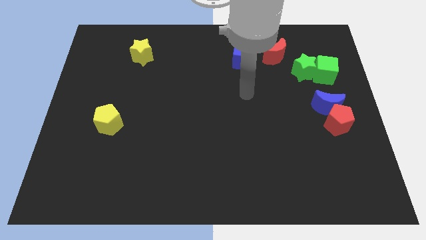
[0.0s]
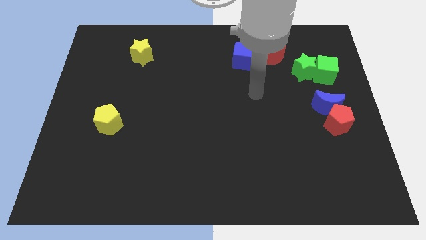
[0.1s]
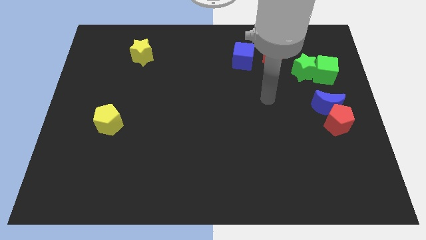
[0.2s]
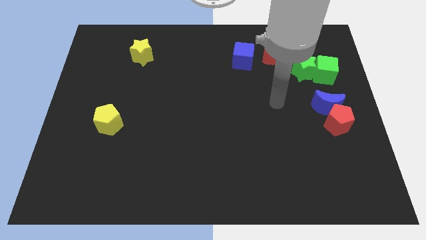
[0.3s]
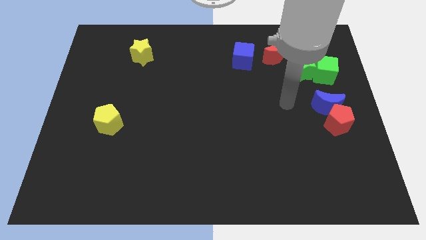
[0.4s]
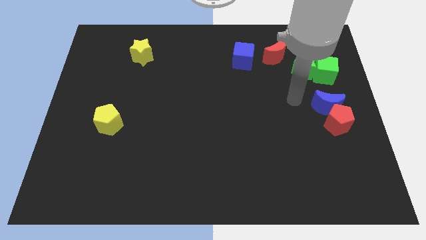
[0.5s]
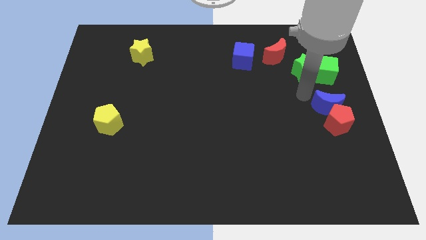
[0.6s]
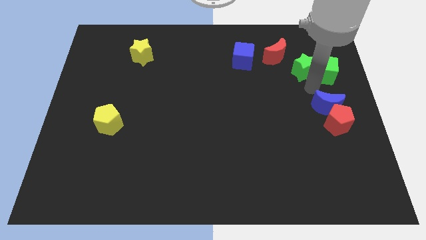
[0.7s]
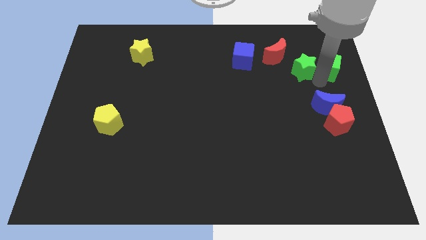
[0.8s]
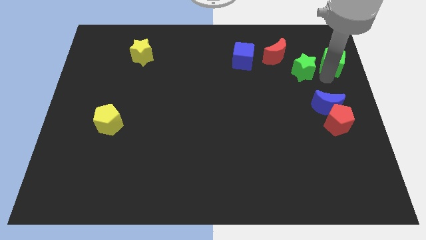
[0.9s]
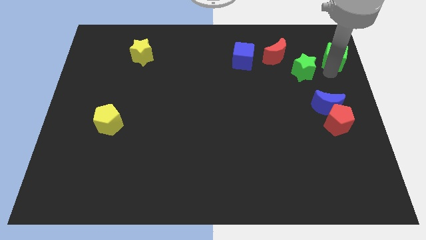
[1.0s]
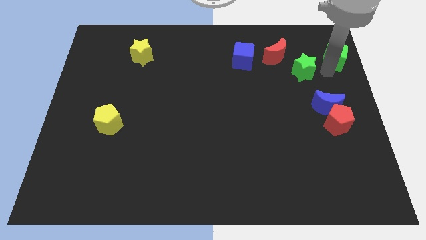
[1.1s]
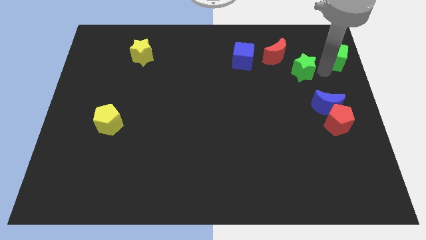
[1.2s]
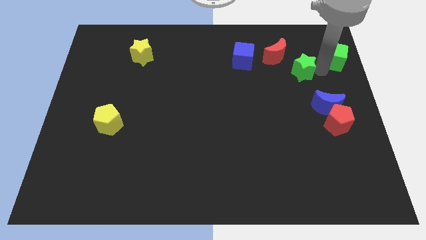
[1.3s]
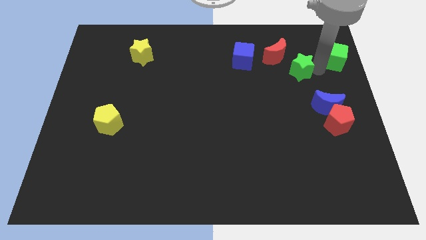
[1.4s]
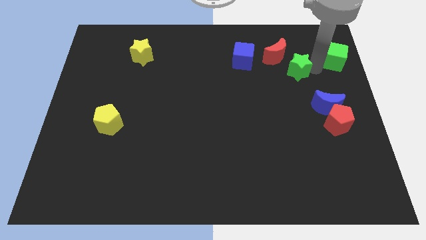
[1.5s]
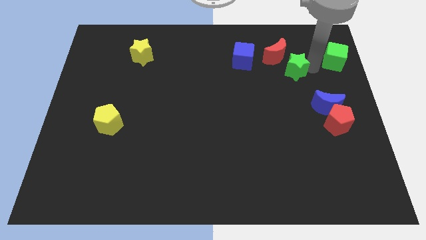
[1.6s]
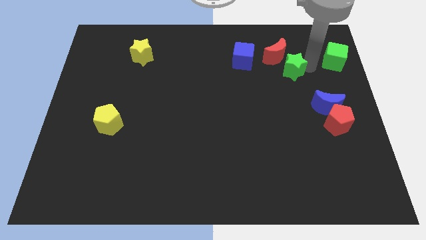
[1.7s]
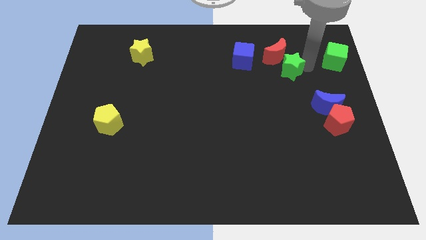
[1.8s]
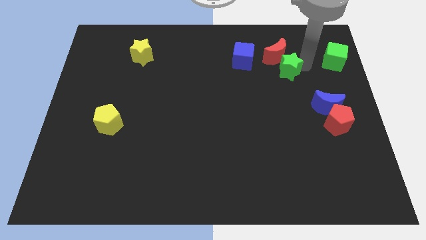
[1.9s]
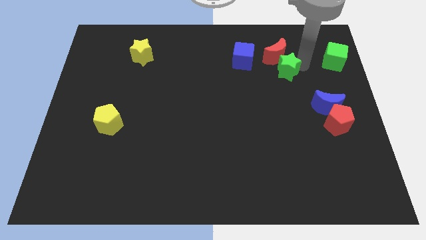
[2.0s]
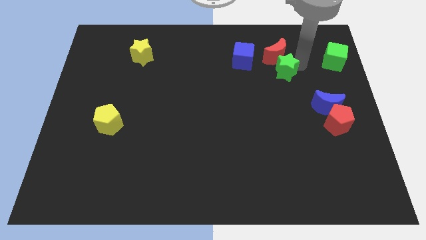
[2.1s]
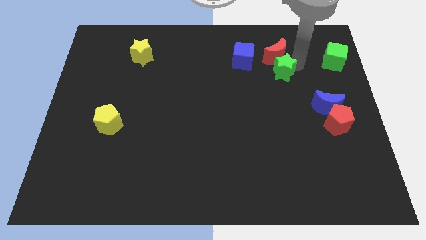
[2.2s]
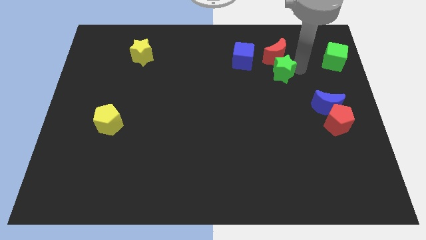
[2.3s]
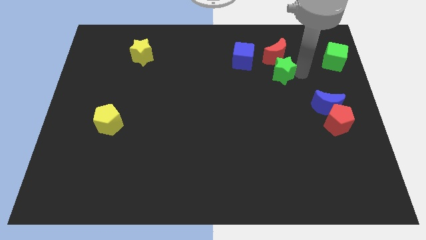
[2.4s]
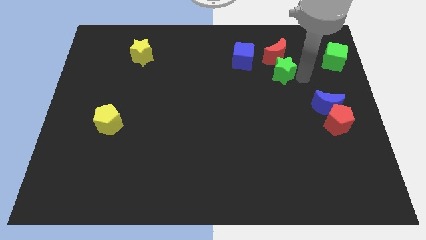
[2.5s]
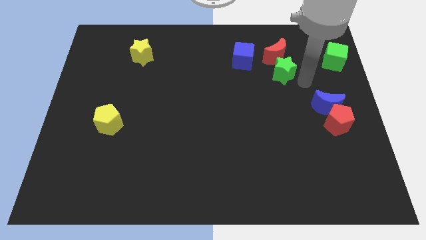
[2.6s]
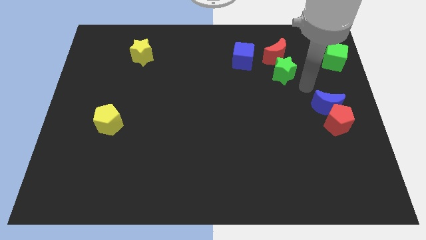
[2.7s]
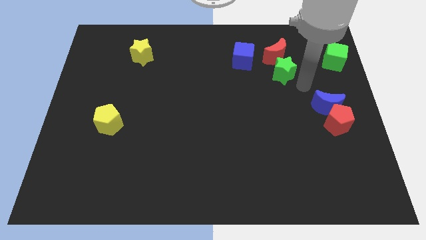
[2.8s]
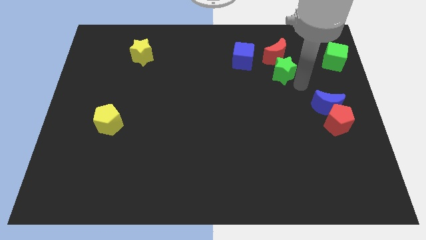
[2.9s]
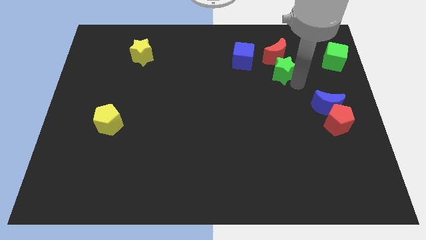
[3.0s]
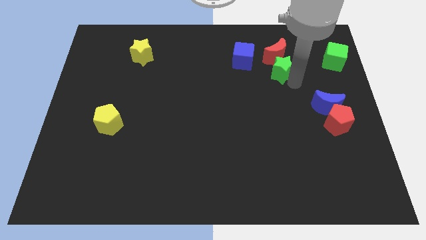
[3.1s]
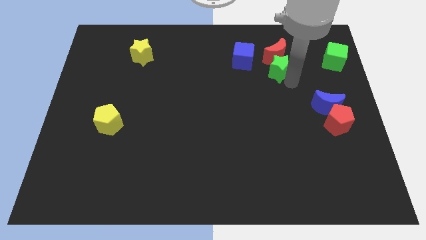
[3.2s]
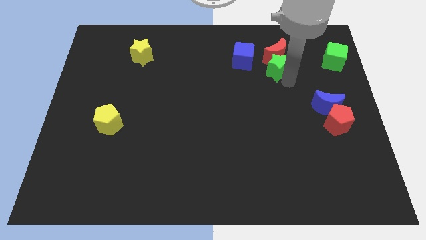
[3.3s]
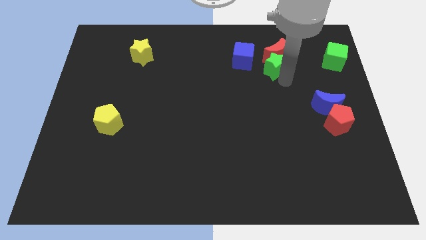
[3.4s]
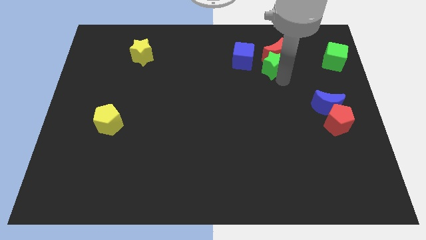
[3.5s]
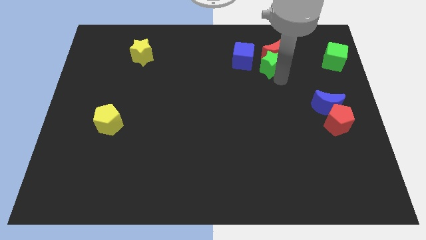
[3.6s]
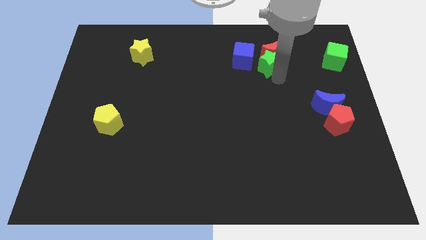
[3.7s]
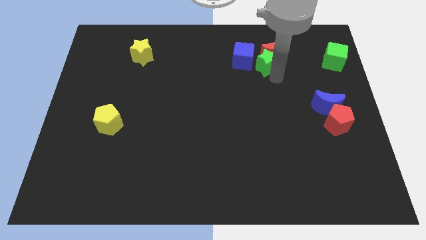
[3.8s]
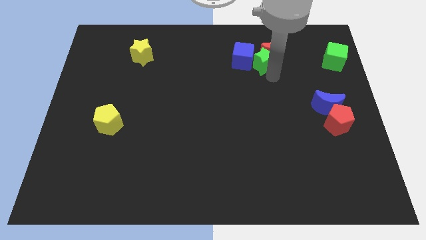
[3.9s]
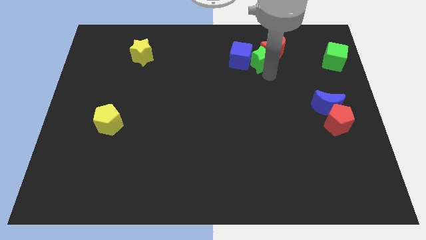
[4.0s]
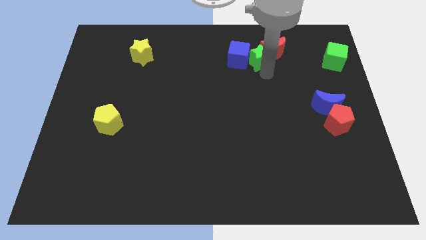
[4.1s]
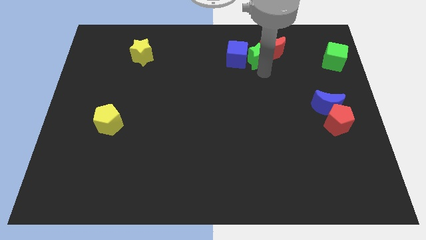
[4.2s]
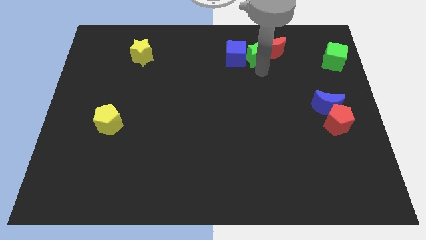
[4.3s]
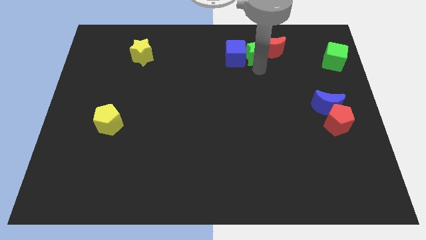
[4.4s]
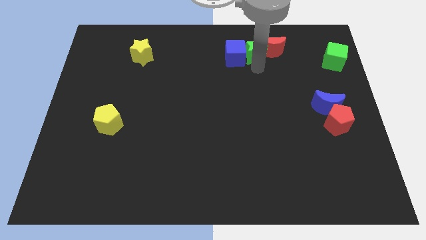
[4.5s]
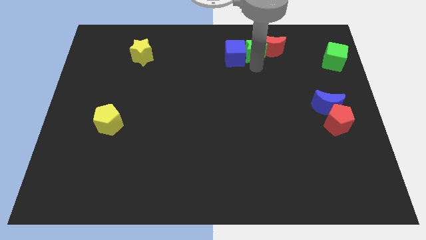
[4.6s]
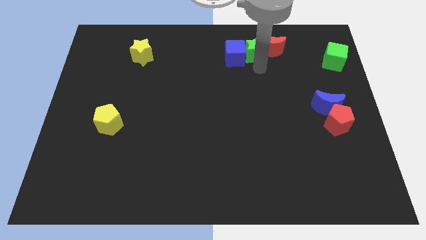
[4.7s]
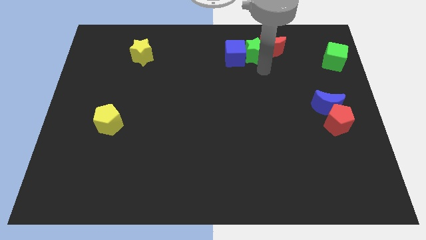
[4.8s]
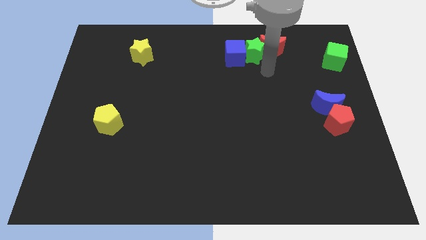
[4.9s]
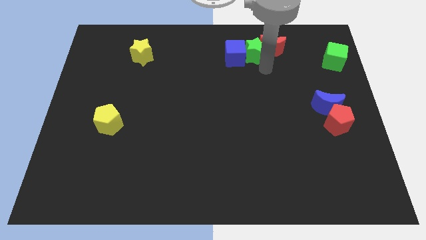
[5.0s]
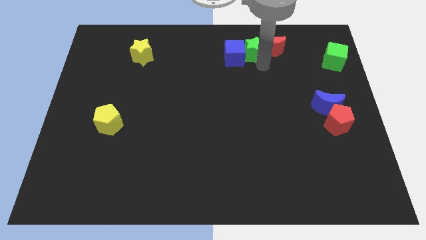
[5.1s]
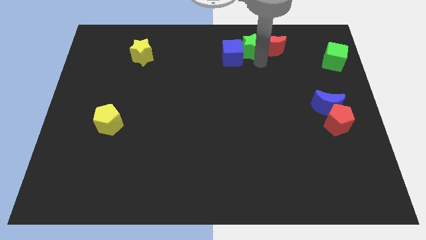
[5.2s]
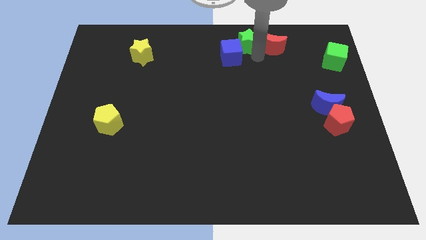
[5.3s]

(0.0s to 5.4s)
put the green star to the top side

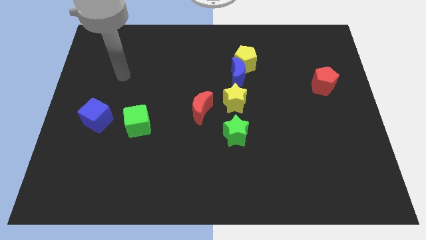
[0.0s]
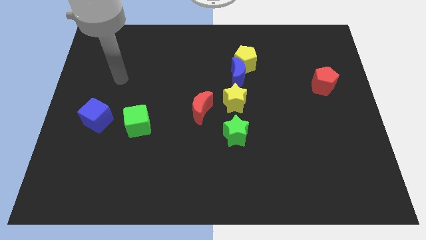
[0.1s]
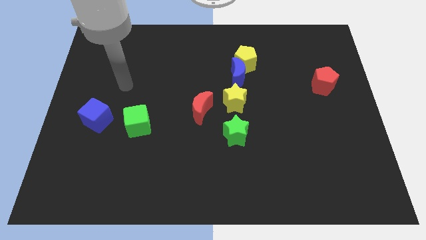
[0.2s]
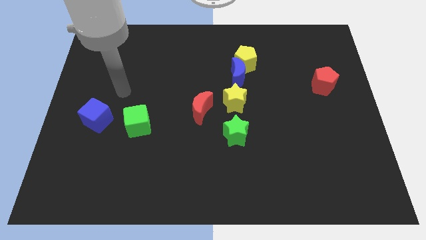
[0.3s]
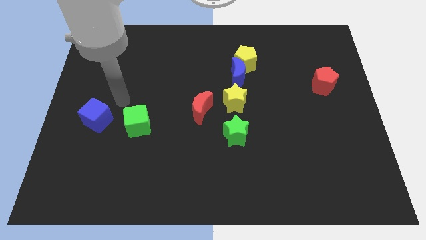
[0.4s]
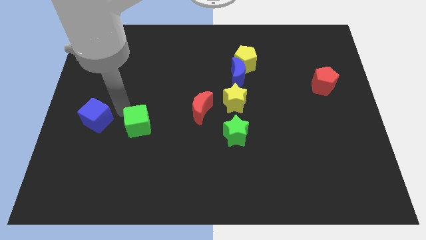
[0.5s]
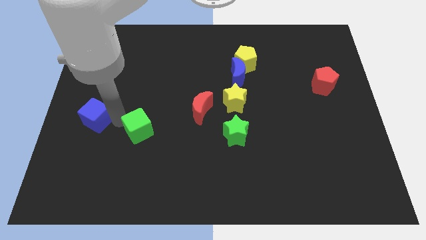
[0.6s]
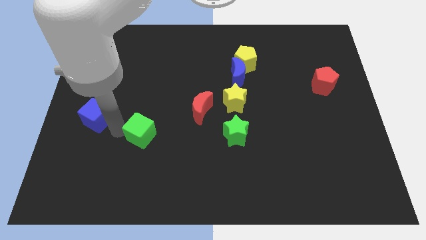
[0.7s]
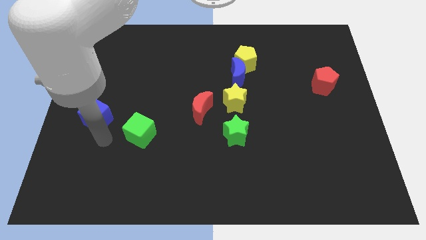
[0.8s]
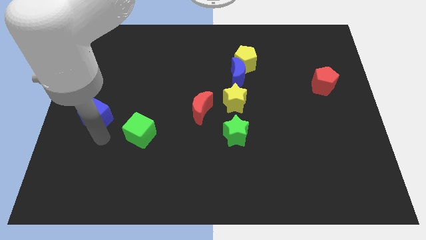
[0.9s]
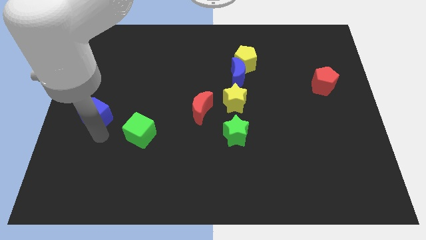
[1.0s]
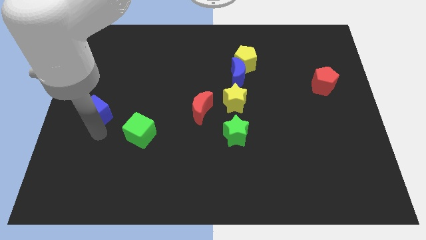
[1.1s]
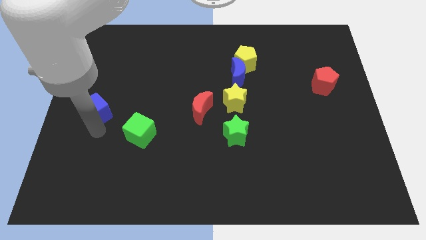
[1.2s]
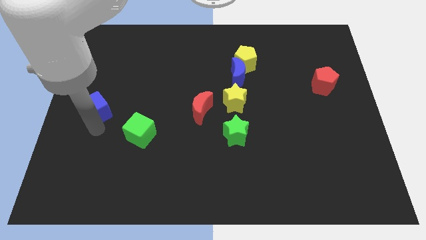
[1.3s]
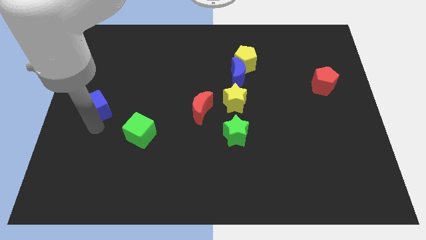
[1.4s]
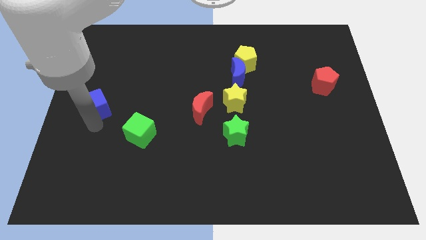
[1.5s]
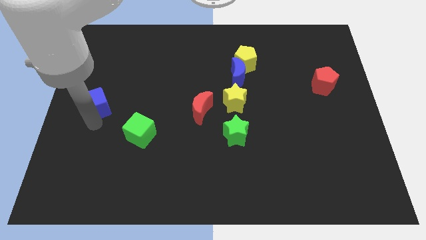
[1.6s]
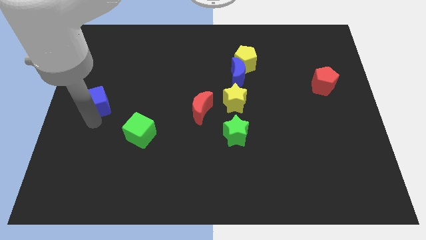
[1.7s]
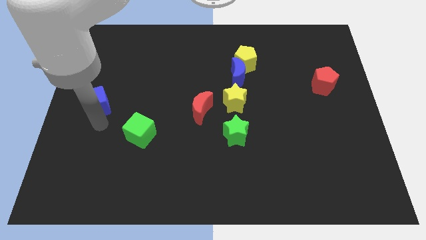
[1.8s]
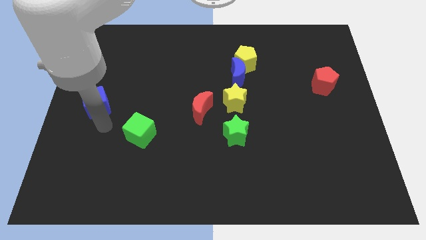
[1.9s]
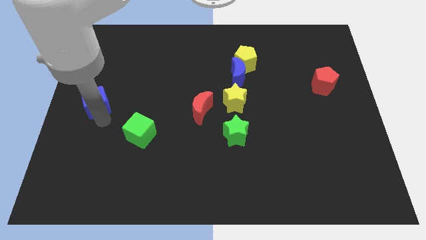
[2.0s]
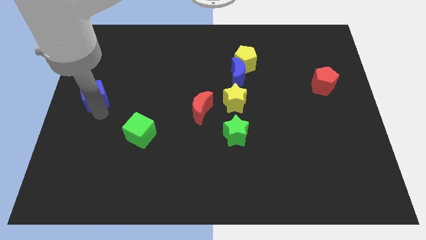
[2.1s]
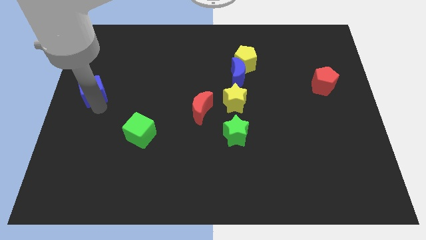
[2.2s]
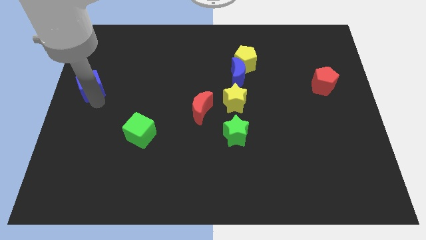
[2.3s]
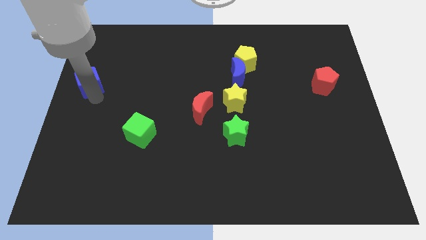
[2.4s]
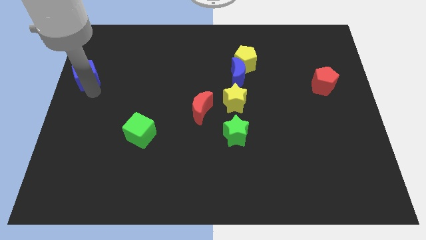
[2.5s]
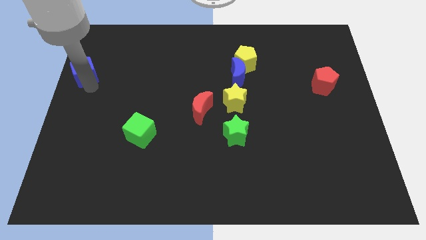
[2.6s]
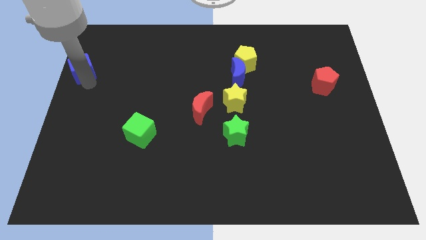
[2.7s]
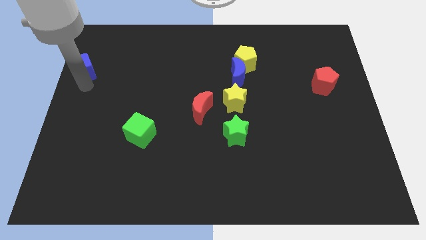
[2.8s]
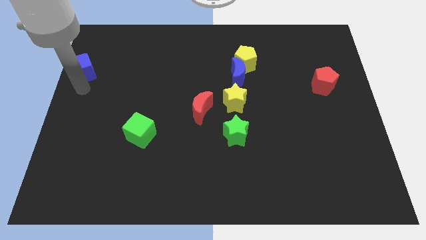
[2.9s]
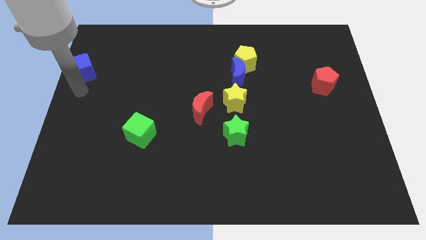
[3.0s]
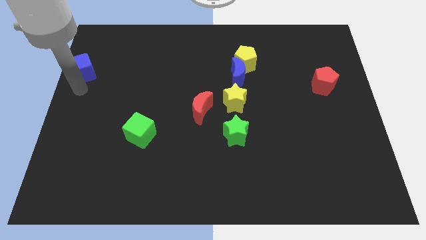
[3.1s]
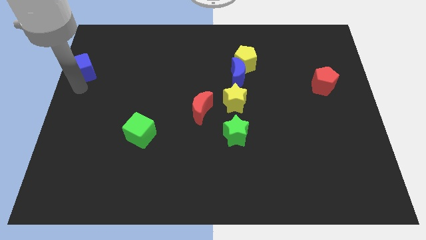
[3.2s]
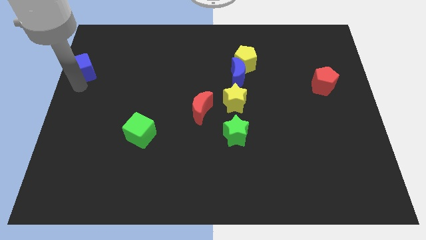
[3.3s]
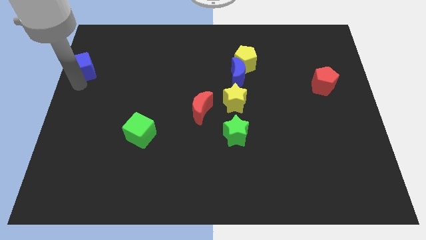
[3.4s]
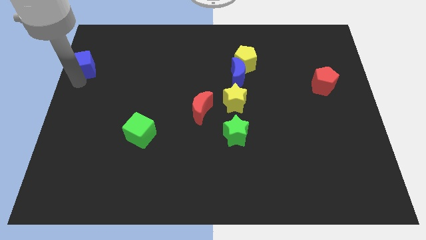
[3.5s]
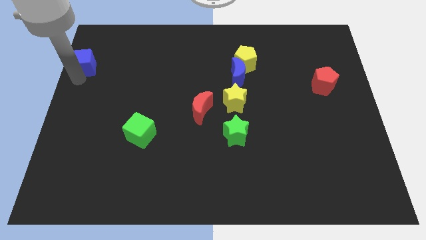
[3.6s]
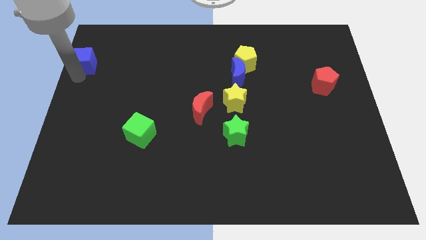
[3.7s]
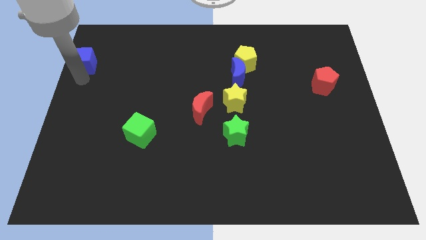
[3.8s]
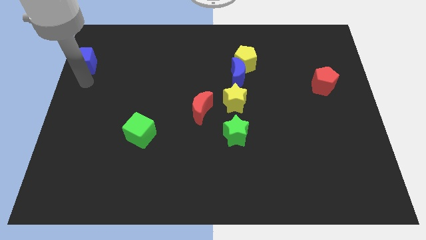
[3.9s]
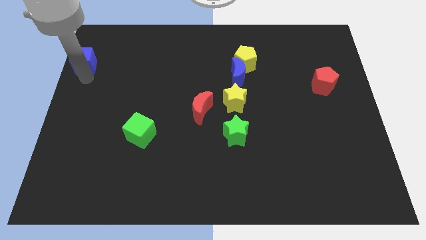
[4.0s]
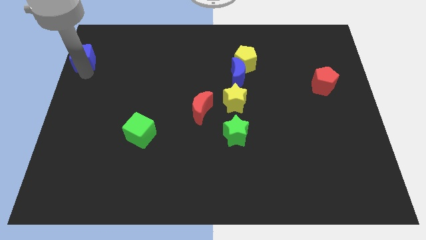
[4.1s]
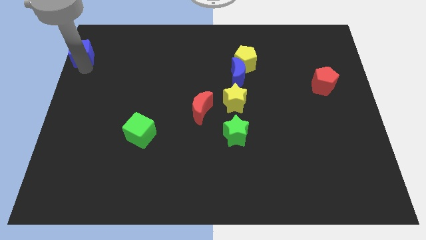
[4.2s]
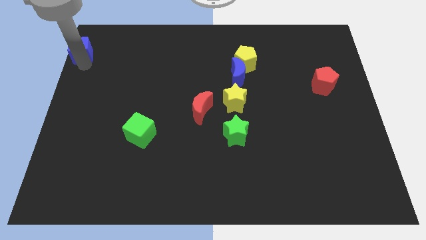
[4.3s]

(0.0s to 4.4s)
slide the blue cube to the top left corner
